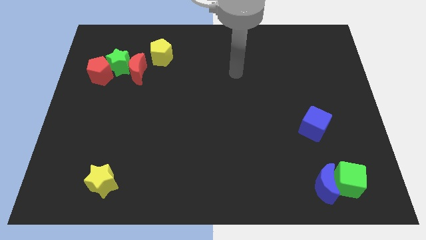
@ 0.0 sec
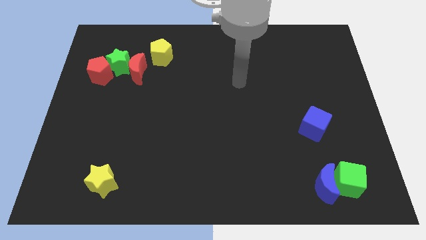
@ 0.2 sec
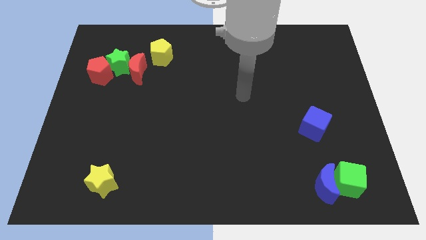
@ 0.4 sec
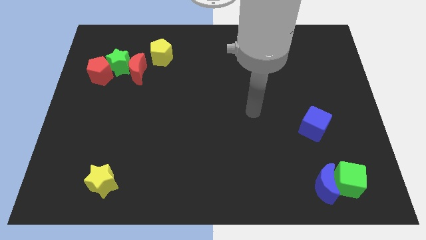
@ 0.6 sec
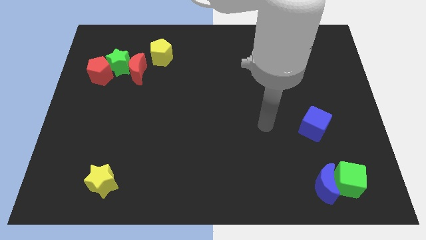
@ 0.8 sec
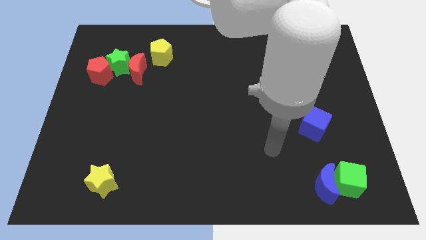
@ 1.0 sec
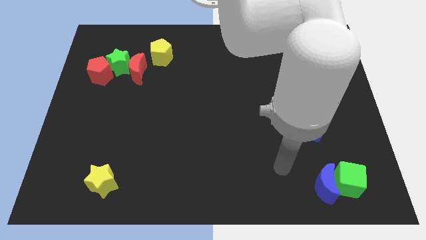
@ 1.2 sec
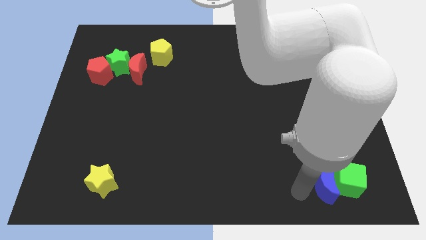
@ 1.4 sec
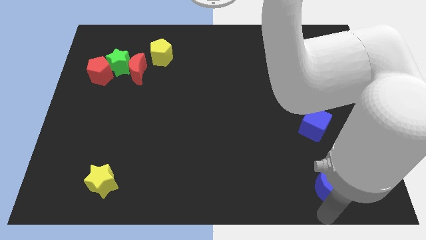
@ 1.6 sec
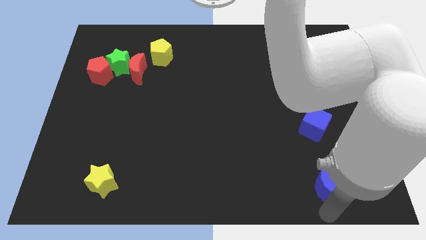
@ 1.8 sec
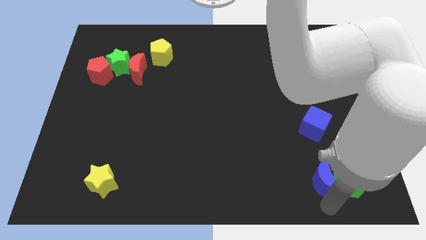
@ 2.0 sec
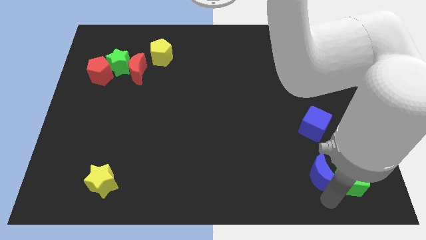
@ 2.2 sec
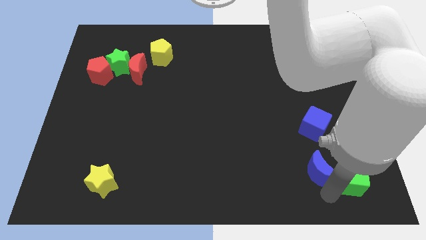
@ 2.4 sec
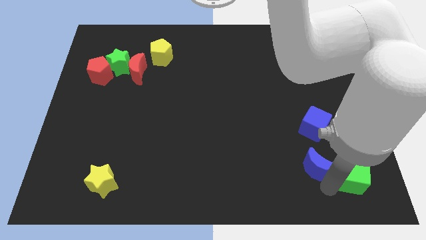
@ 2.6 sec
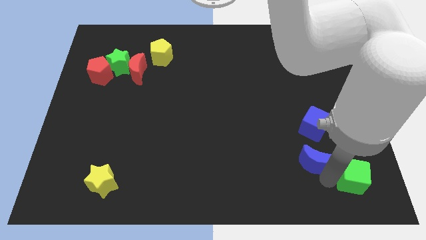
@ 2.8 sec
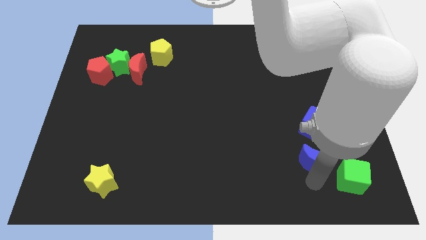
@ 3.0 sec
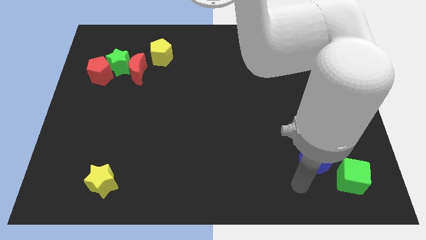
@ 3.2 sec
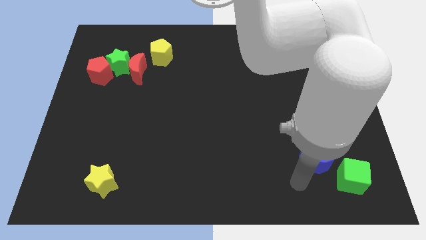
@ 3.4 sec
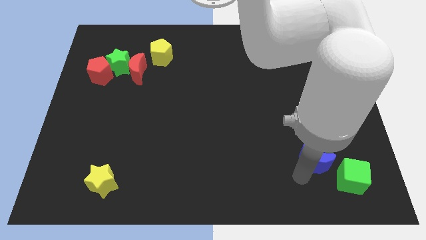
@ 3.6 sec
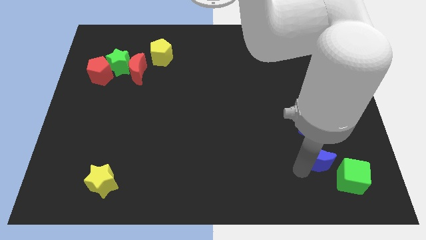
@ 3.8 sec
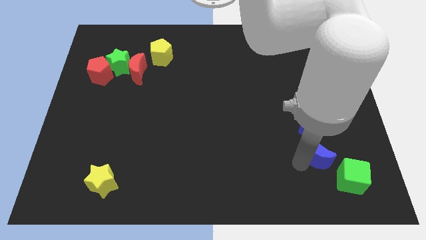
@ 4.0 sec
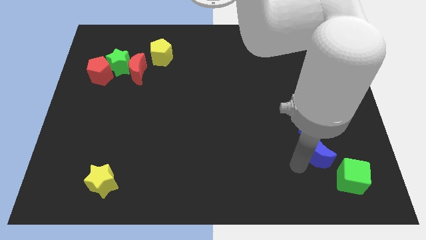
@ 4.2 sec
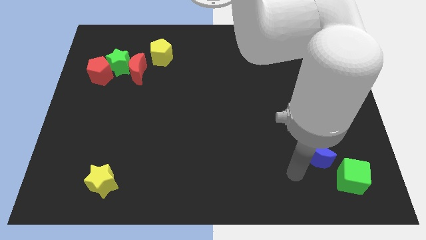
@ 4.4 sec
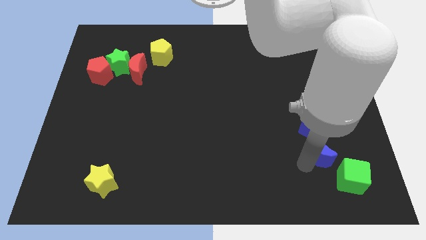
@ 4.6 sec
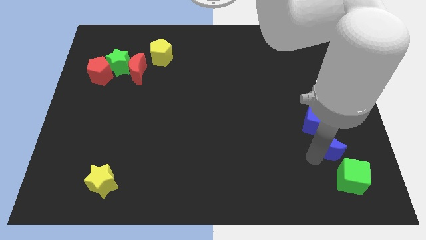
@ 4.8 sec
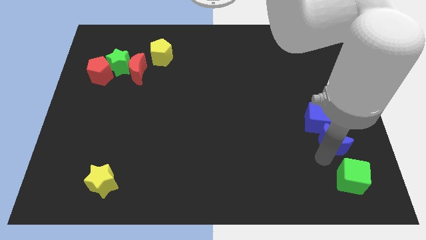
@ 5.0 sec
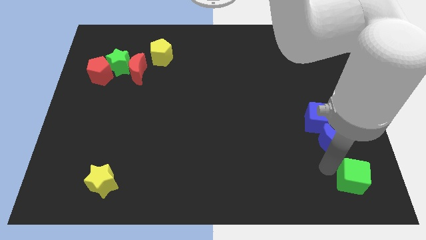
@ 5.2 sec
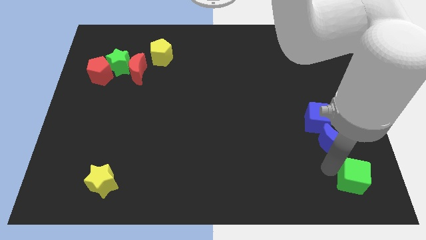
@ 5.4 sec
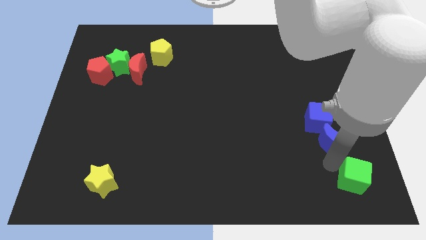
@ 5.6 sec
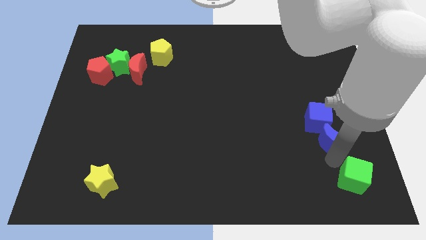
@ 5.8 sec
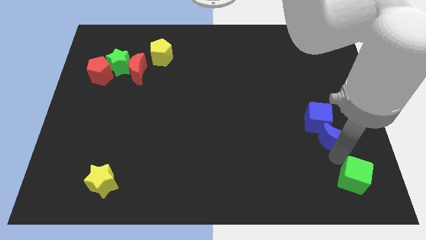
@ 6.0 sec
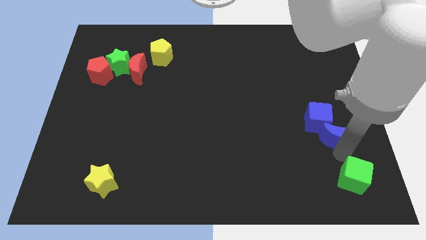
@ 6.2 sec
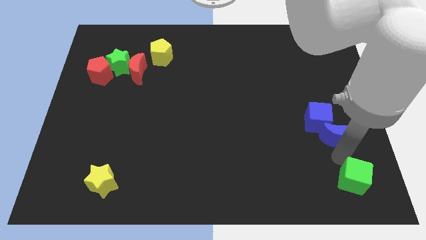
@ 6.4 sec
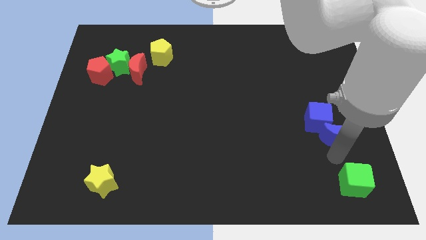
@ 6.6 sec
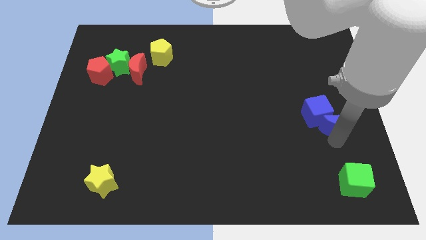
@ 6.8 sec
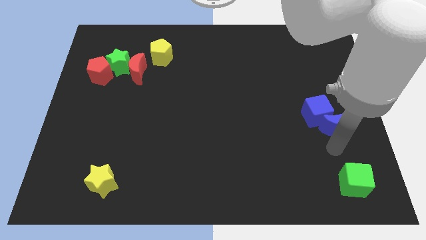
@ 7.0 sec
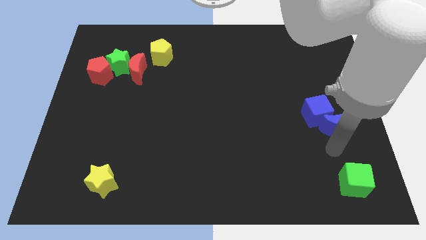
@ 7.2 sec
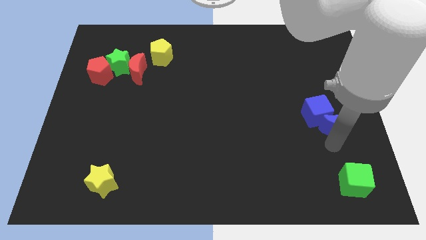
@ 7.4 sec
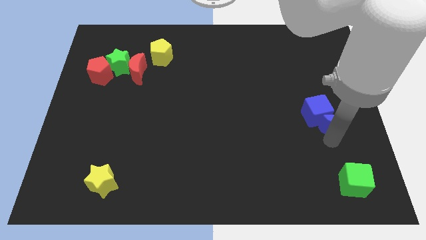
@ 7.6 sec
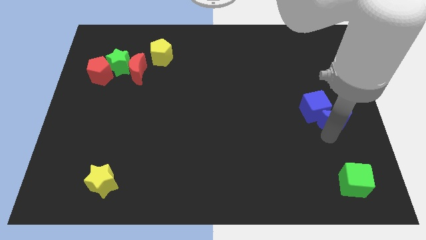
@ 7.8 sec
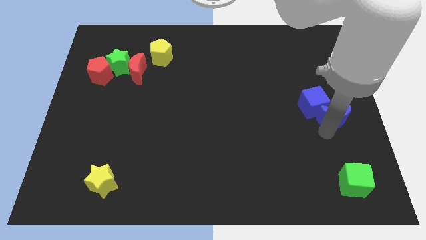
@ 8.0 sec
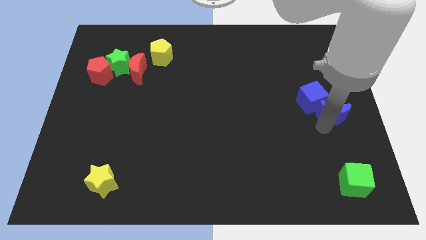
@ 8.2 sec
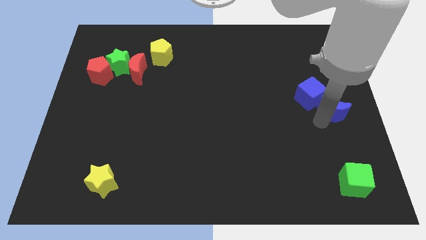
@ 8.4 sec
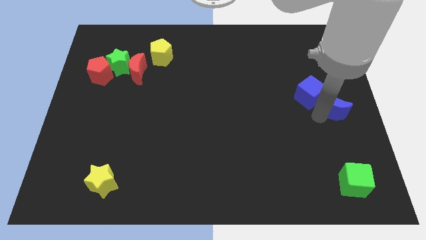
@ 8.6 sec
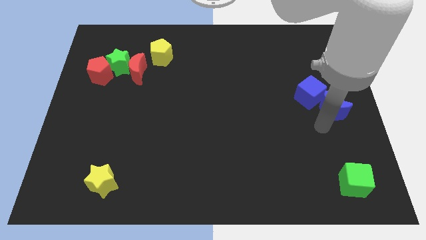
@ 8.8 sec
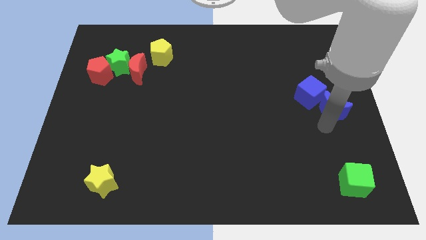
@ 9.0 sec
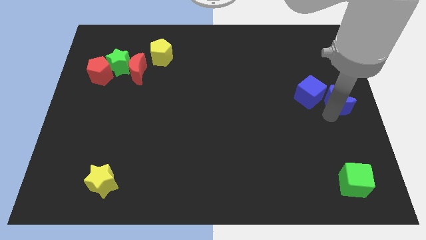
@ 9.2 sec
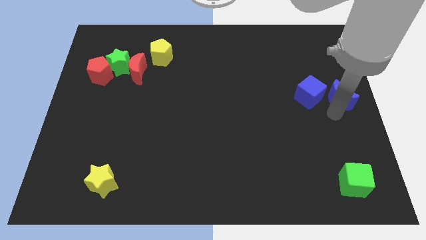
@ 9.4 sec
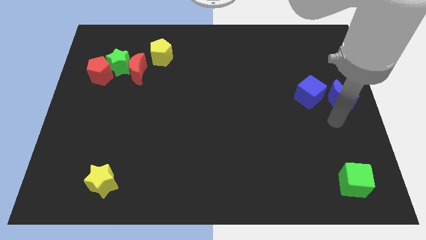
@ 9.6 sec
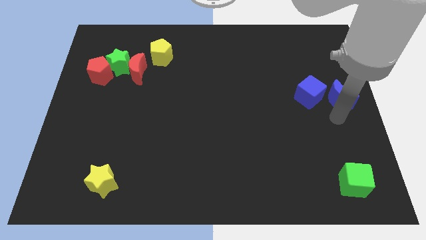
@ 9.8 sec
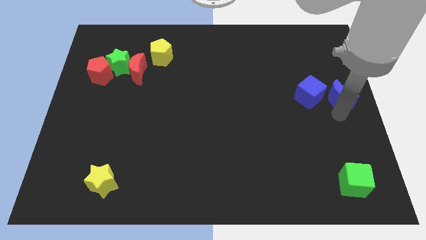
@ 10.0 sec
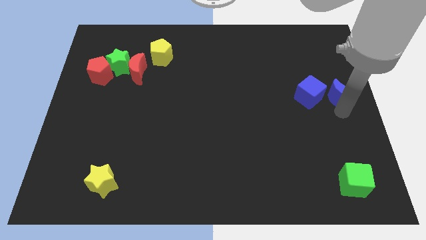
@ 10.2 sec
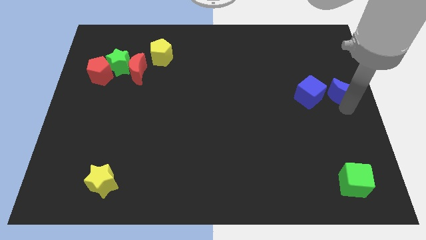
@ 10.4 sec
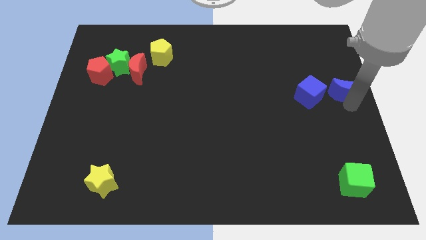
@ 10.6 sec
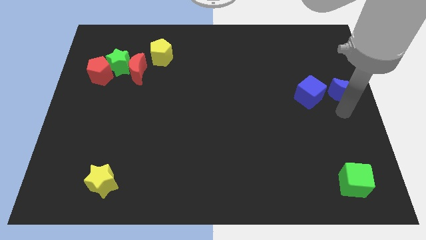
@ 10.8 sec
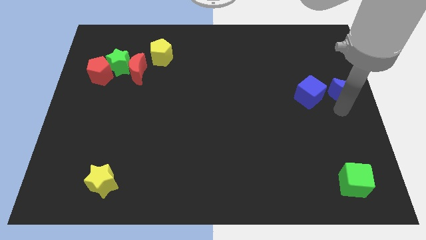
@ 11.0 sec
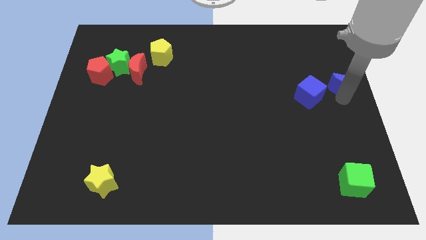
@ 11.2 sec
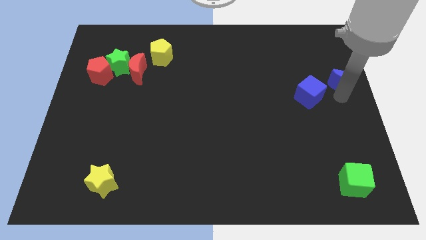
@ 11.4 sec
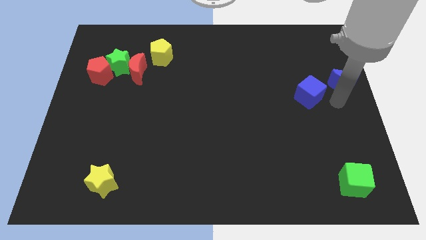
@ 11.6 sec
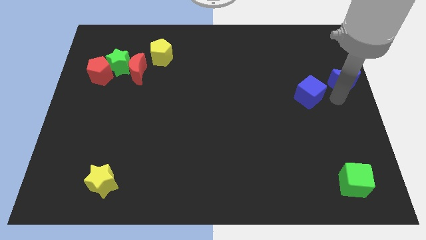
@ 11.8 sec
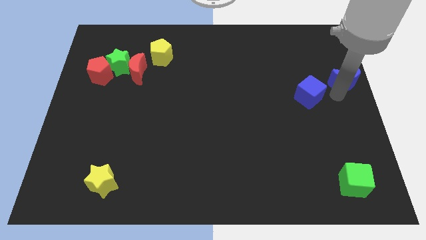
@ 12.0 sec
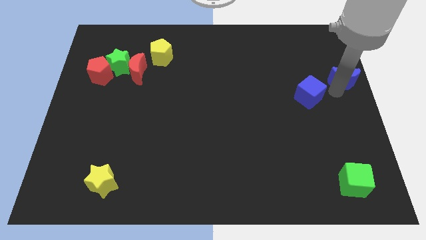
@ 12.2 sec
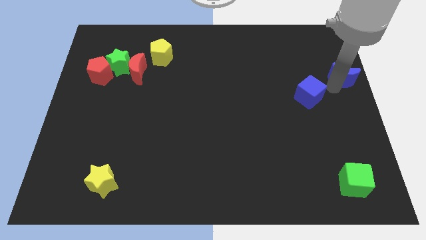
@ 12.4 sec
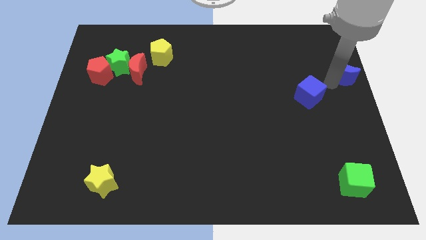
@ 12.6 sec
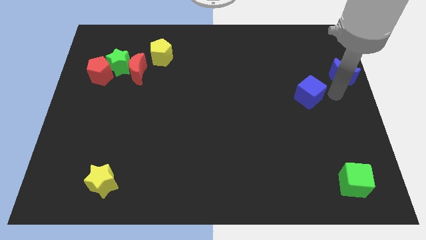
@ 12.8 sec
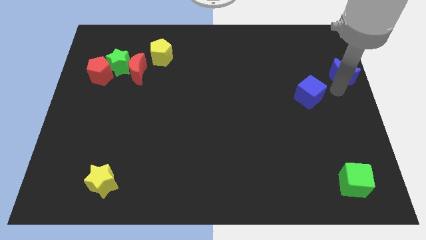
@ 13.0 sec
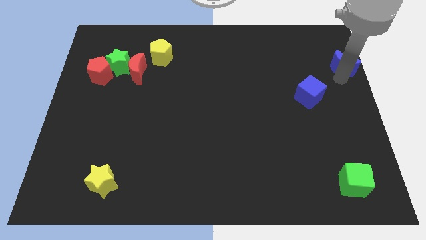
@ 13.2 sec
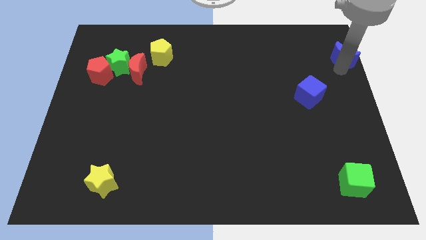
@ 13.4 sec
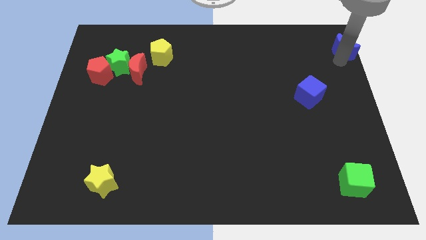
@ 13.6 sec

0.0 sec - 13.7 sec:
move the blue moon to the top right corner
